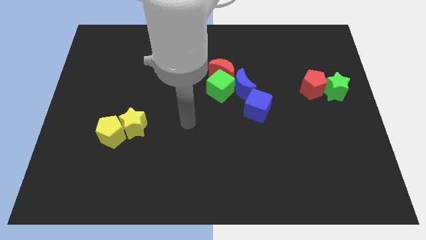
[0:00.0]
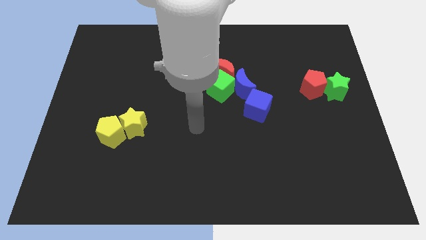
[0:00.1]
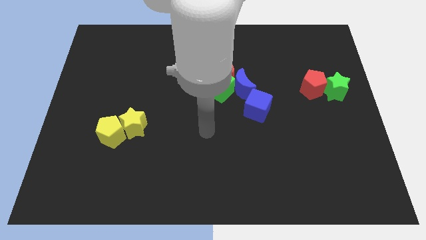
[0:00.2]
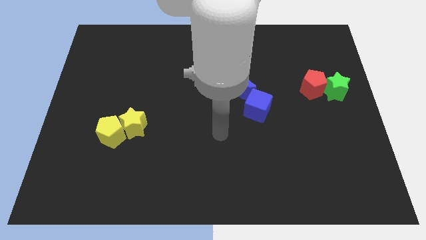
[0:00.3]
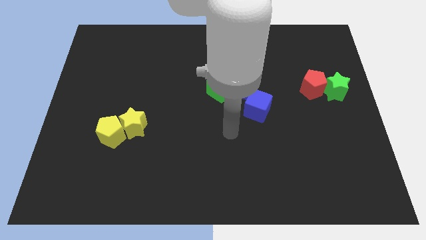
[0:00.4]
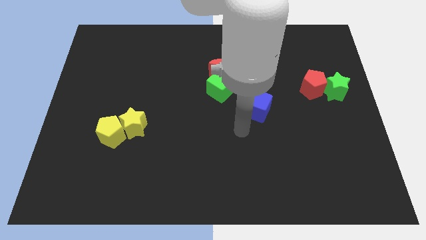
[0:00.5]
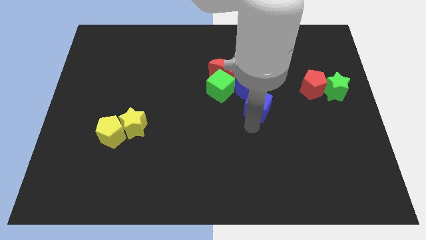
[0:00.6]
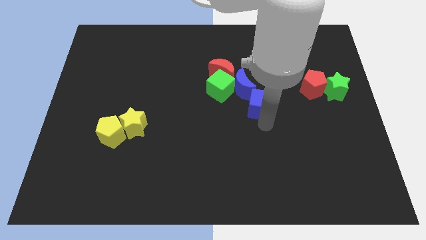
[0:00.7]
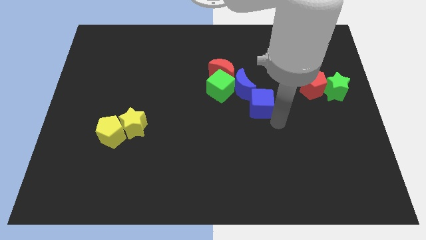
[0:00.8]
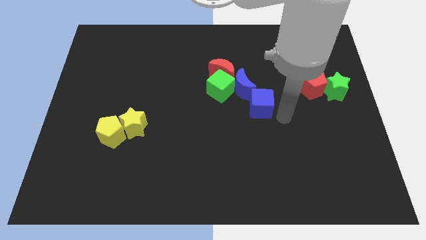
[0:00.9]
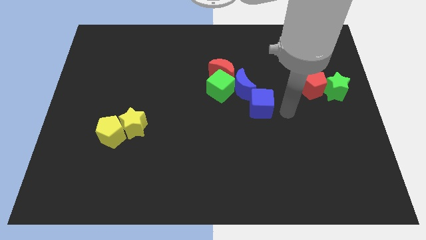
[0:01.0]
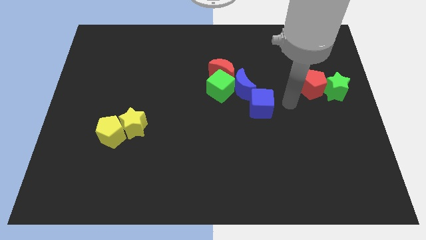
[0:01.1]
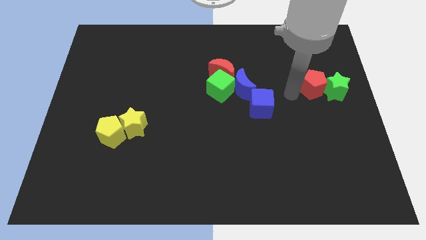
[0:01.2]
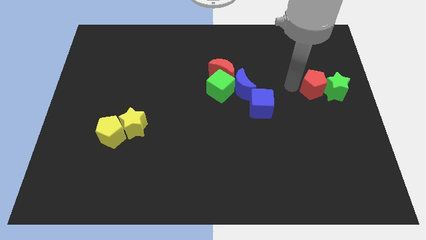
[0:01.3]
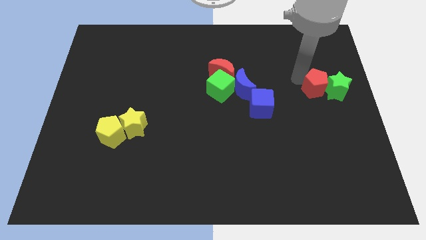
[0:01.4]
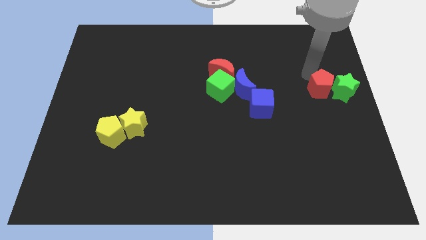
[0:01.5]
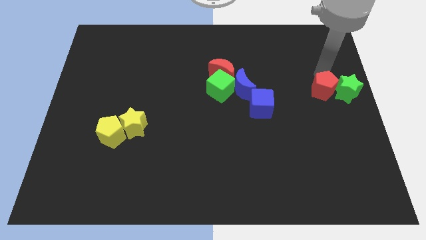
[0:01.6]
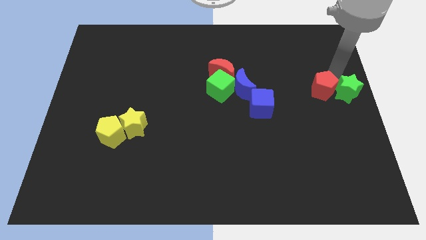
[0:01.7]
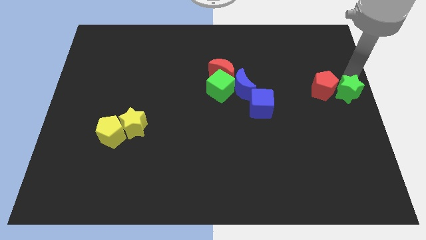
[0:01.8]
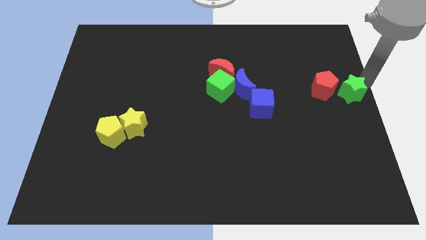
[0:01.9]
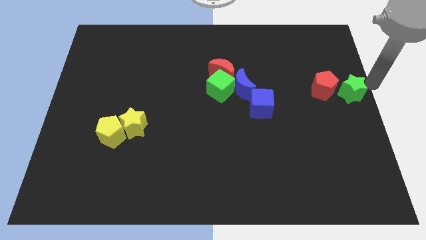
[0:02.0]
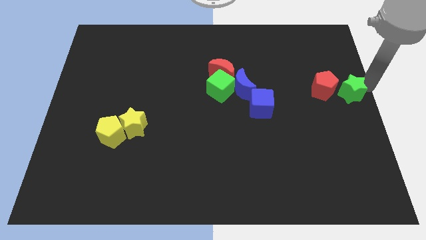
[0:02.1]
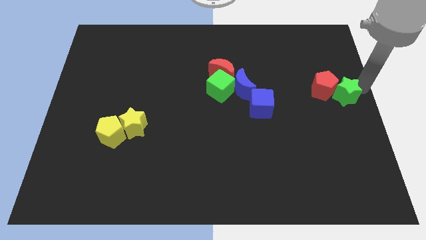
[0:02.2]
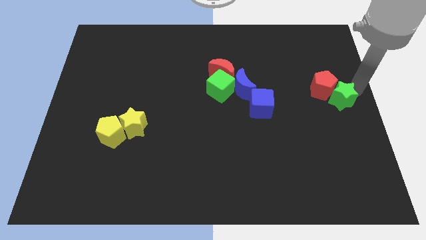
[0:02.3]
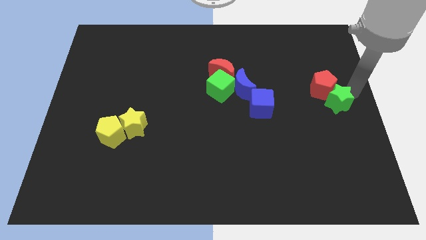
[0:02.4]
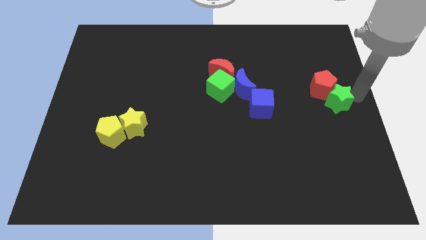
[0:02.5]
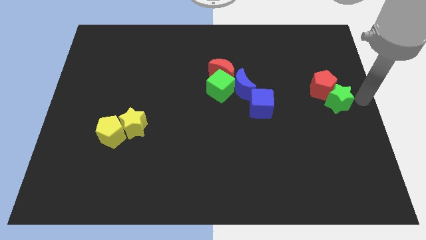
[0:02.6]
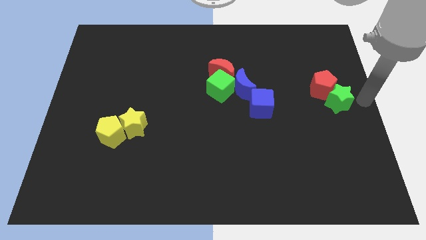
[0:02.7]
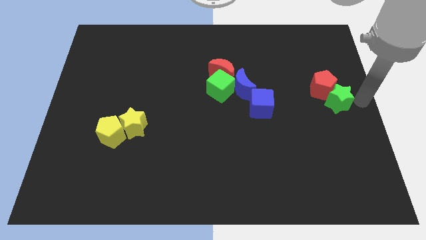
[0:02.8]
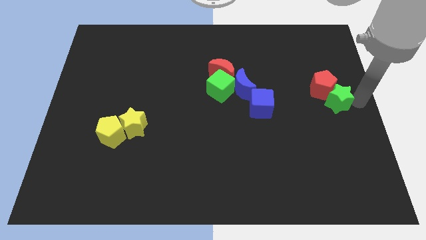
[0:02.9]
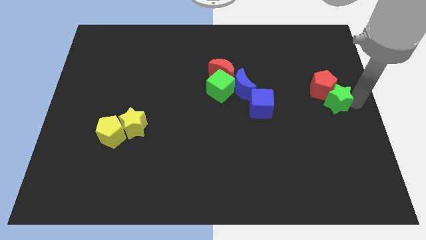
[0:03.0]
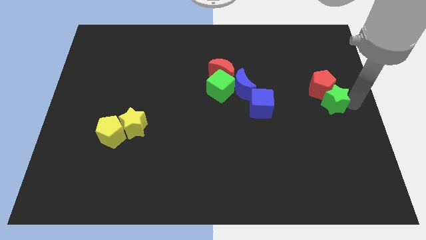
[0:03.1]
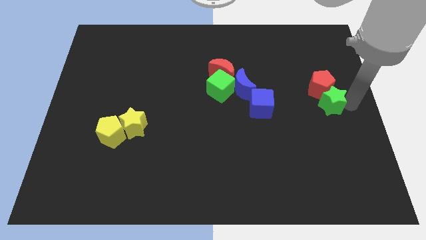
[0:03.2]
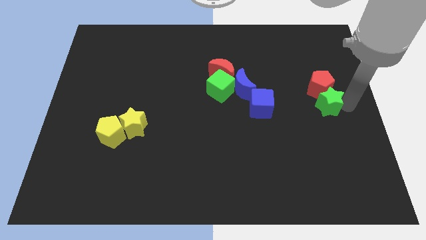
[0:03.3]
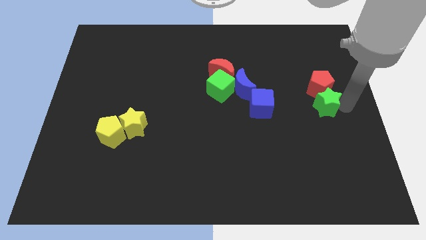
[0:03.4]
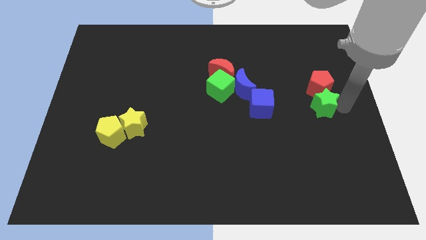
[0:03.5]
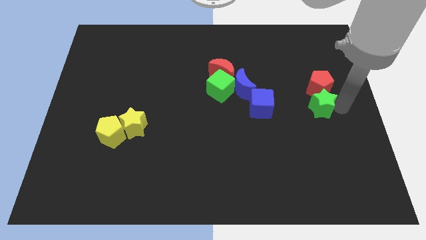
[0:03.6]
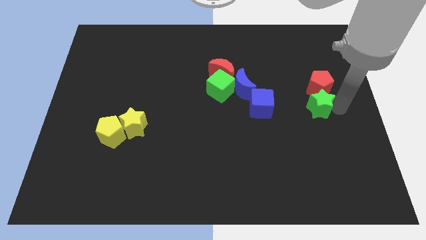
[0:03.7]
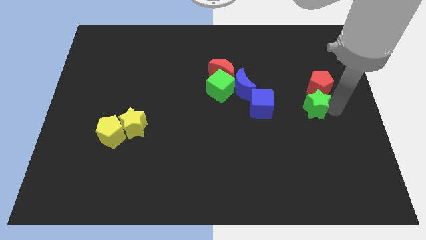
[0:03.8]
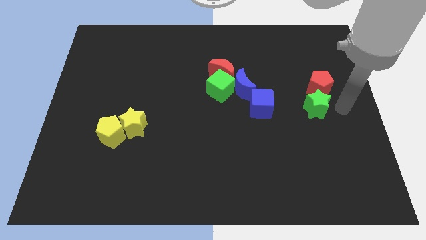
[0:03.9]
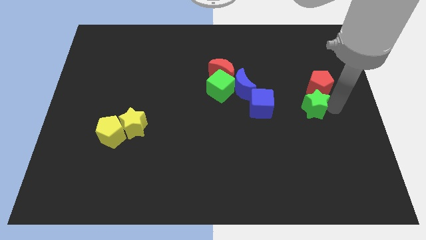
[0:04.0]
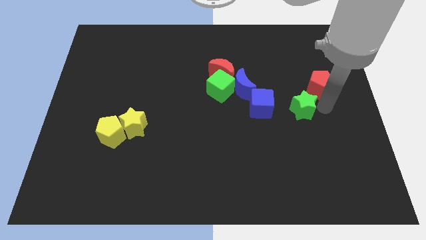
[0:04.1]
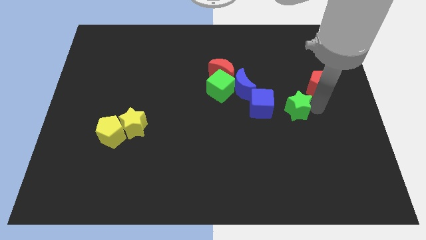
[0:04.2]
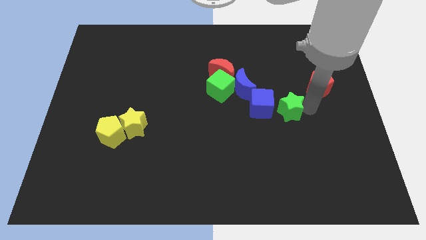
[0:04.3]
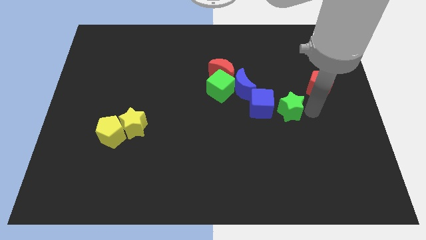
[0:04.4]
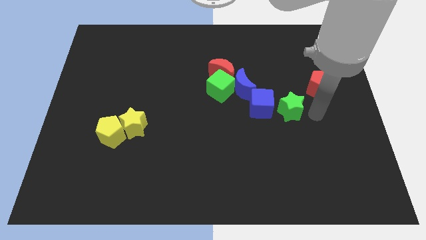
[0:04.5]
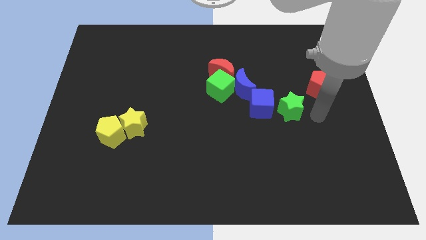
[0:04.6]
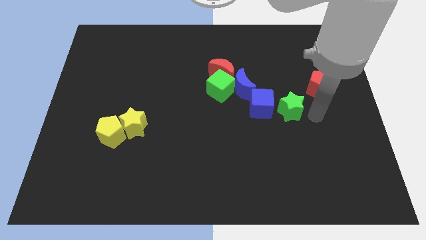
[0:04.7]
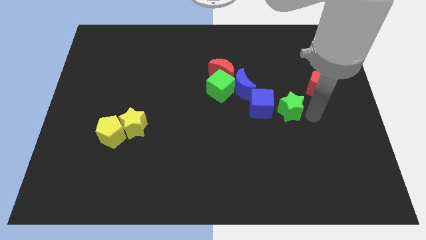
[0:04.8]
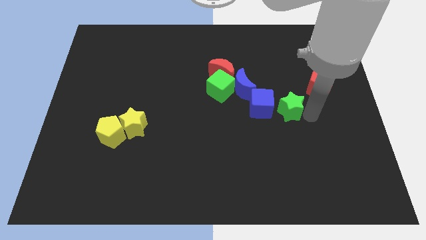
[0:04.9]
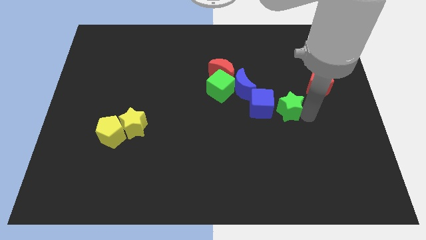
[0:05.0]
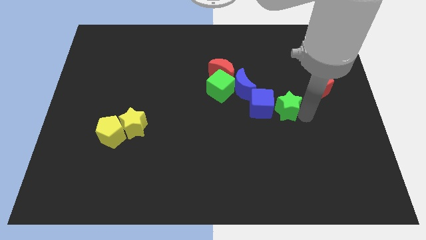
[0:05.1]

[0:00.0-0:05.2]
move the green star close to the blue cube

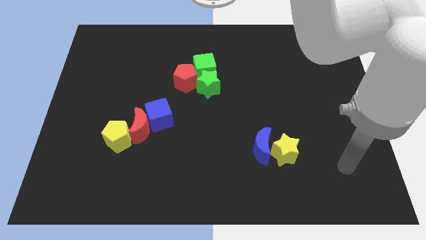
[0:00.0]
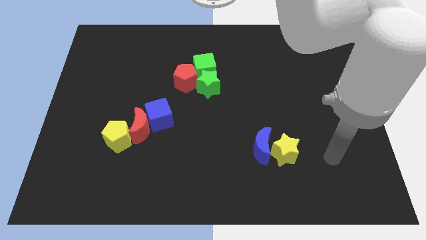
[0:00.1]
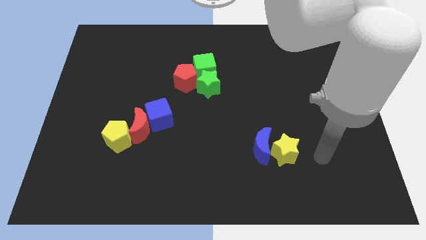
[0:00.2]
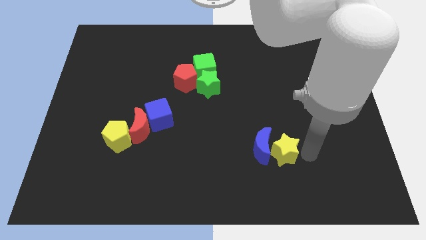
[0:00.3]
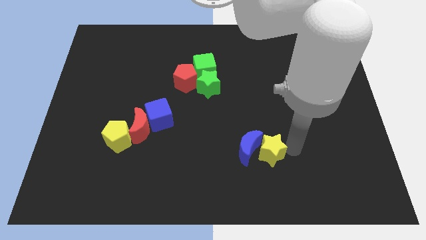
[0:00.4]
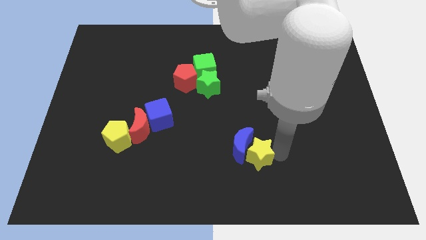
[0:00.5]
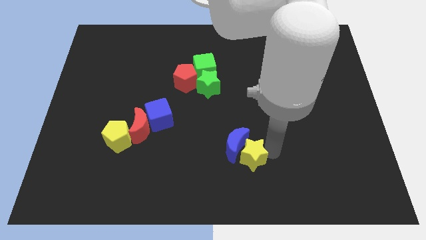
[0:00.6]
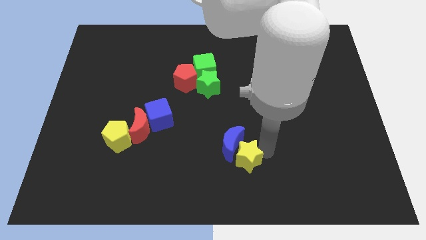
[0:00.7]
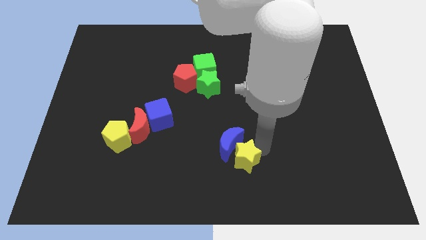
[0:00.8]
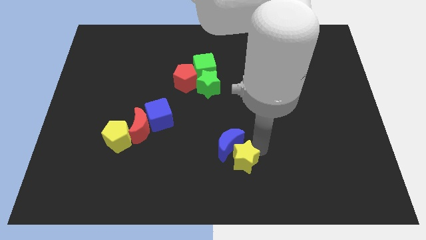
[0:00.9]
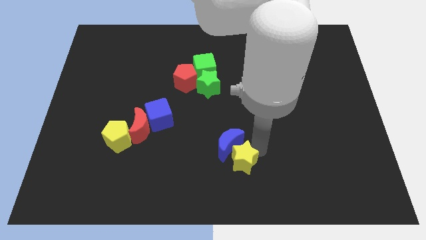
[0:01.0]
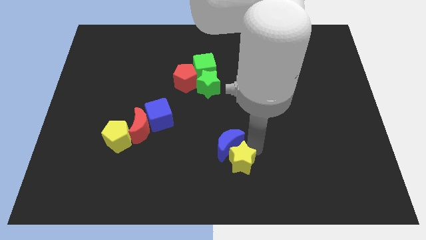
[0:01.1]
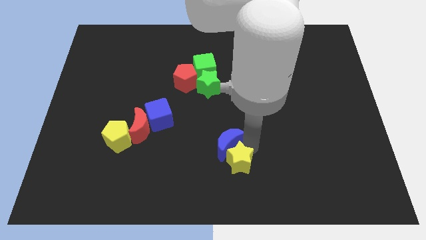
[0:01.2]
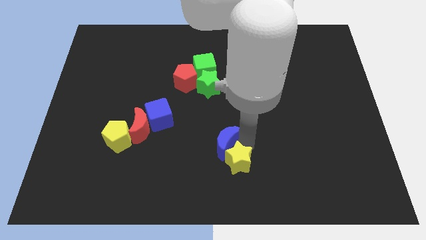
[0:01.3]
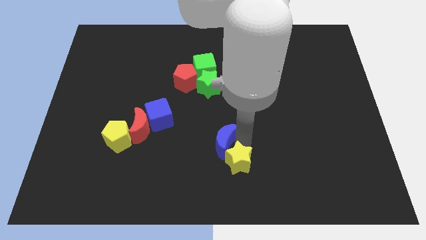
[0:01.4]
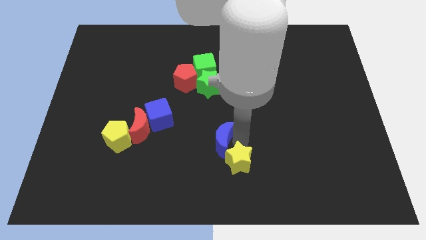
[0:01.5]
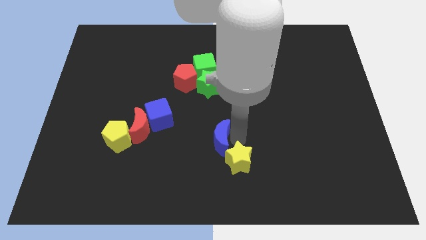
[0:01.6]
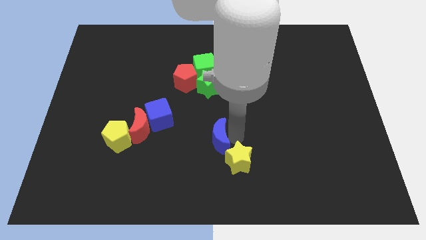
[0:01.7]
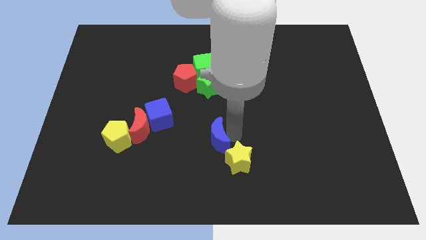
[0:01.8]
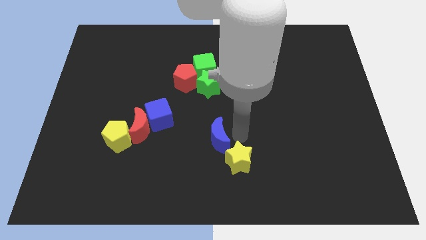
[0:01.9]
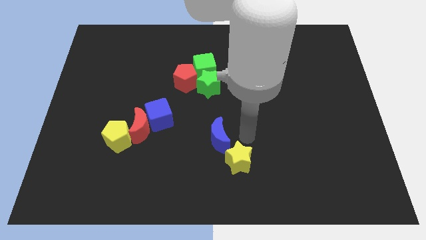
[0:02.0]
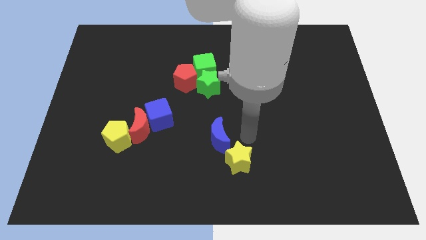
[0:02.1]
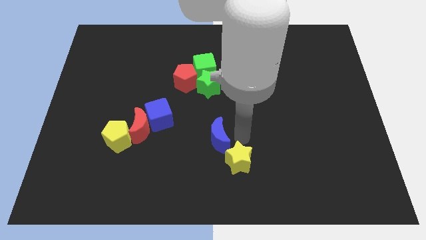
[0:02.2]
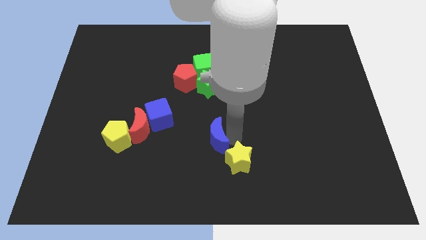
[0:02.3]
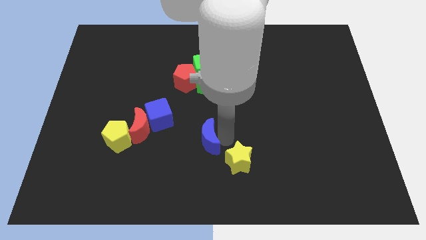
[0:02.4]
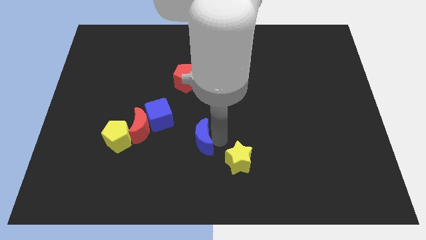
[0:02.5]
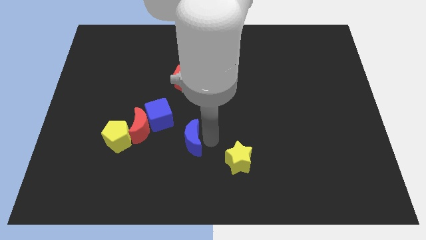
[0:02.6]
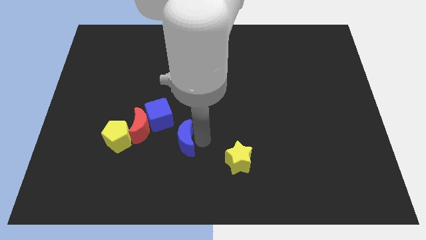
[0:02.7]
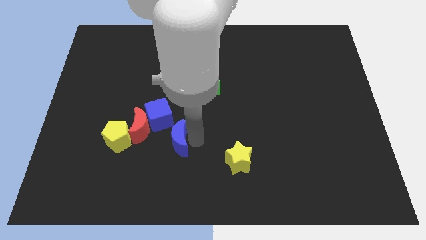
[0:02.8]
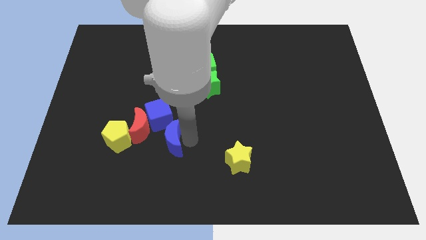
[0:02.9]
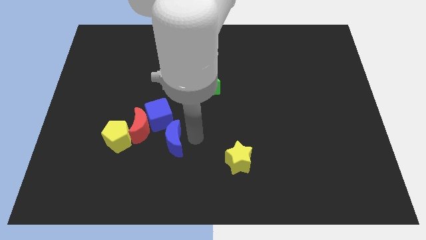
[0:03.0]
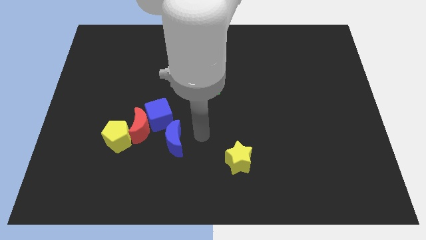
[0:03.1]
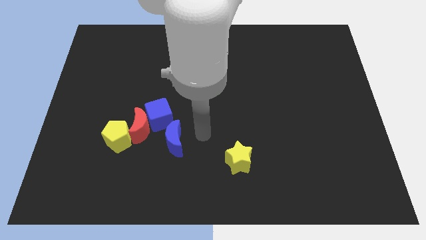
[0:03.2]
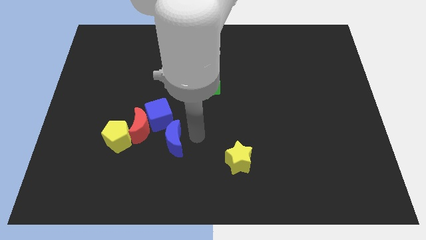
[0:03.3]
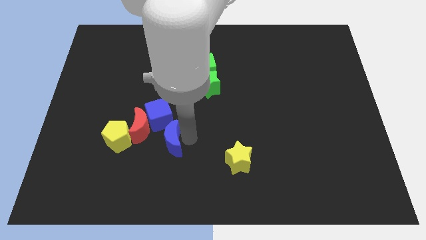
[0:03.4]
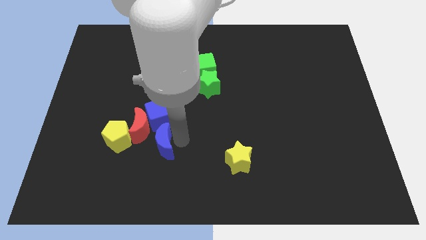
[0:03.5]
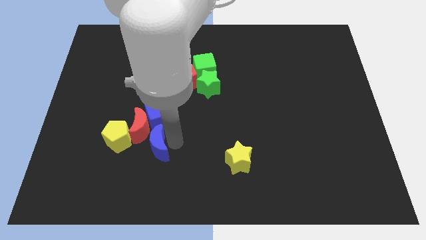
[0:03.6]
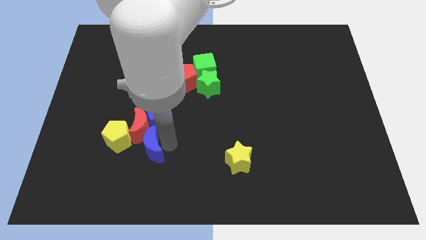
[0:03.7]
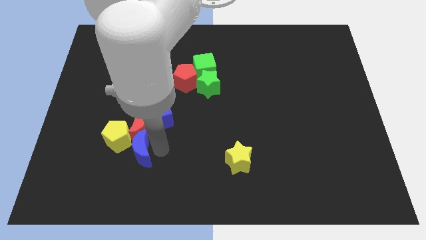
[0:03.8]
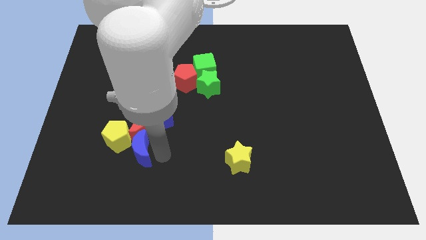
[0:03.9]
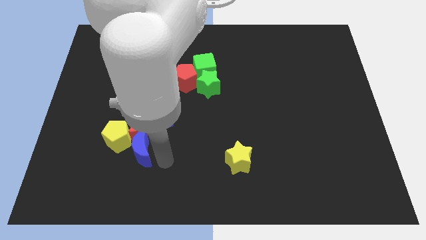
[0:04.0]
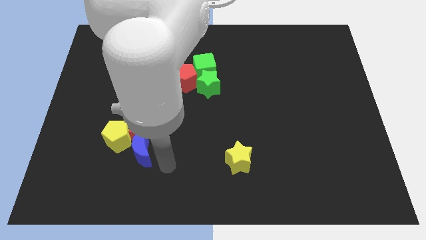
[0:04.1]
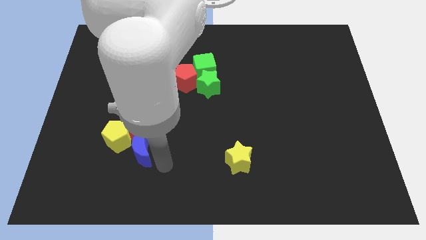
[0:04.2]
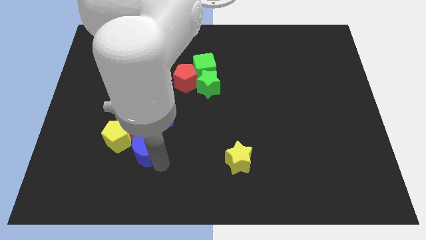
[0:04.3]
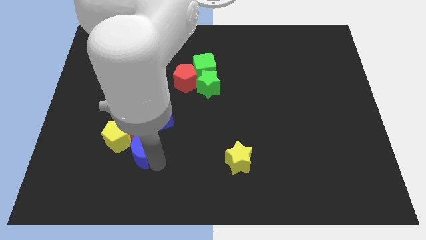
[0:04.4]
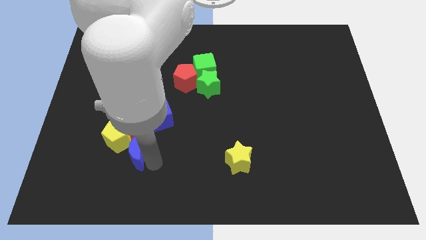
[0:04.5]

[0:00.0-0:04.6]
put the blue moon towards the yellow pentagon
